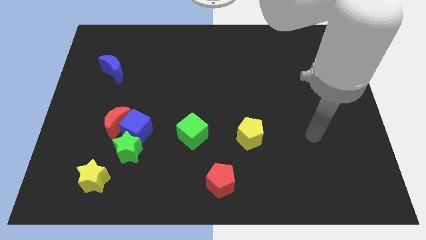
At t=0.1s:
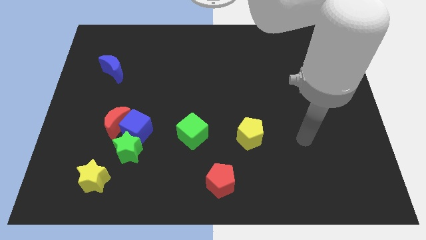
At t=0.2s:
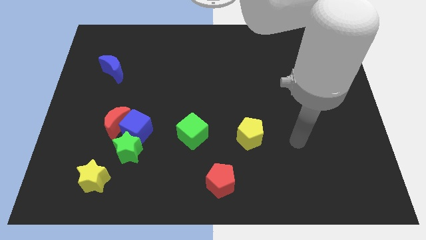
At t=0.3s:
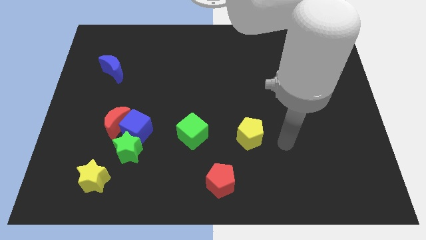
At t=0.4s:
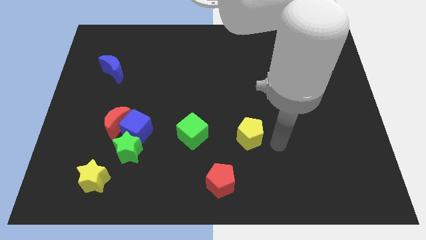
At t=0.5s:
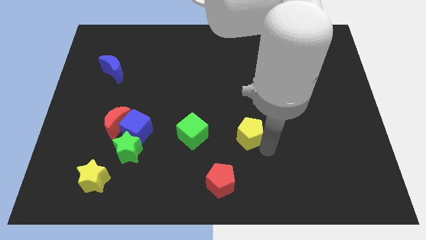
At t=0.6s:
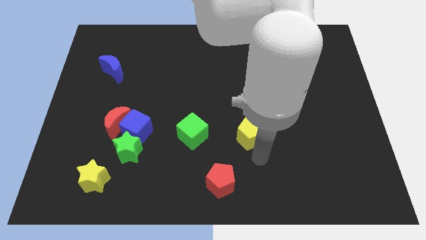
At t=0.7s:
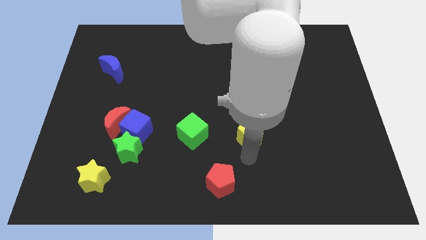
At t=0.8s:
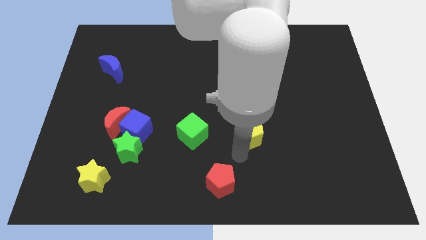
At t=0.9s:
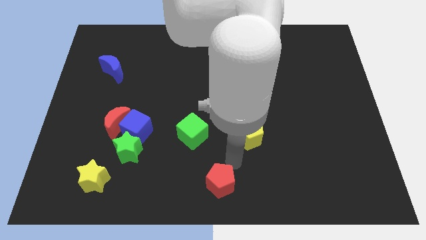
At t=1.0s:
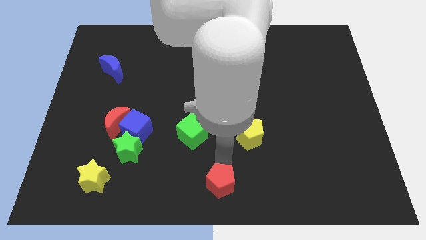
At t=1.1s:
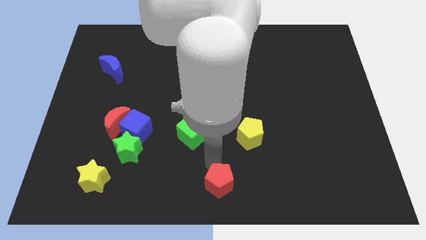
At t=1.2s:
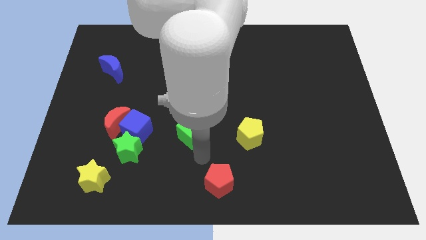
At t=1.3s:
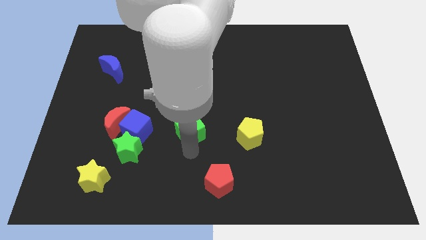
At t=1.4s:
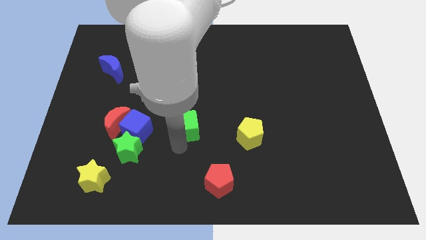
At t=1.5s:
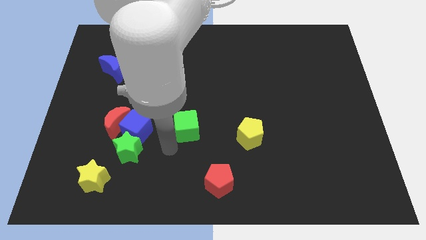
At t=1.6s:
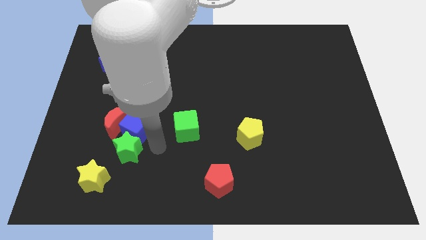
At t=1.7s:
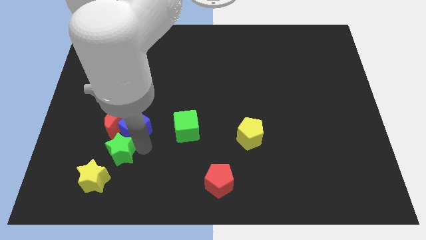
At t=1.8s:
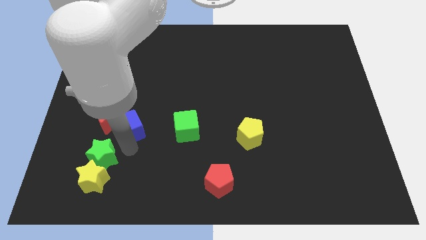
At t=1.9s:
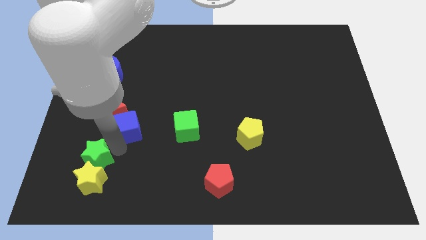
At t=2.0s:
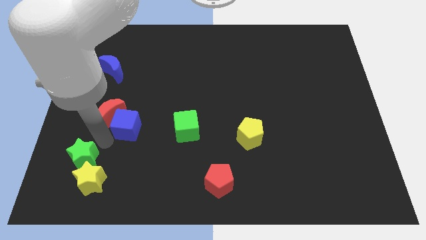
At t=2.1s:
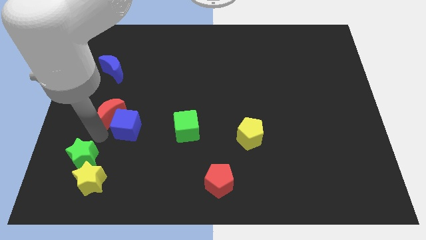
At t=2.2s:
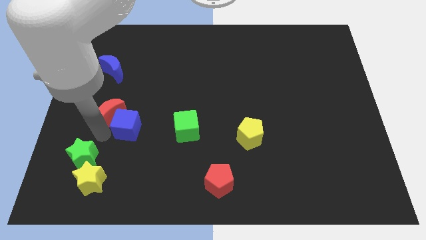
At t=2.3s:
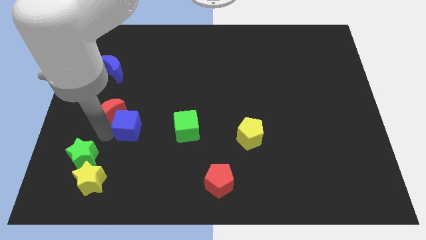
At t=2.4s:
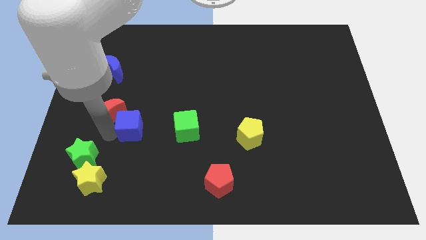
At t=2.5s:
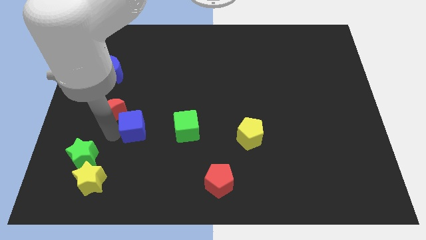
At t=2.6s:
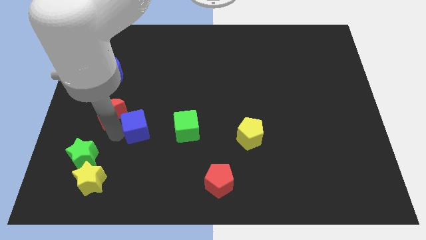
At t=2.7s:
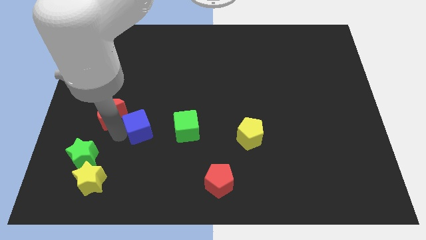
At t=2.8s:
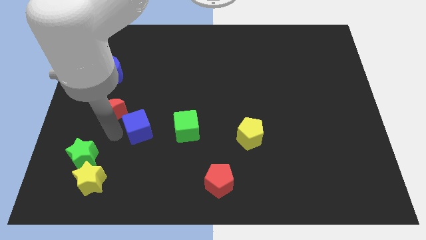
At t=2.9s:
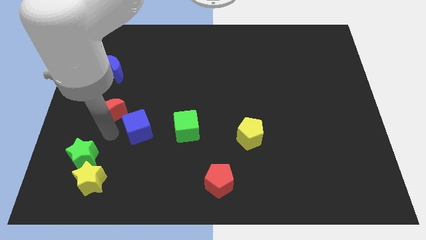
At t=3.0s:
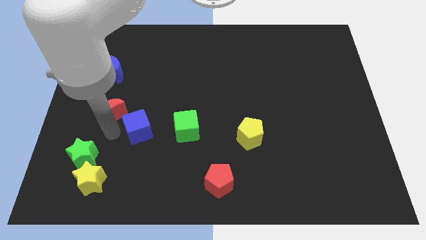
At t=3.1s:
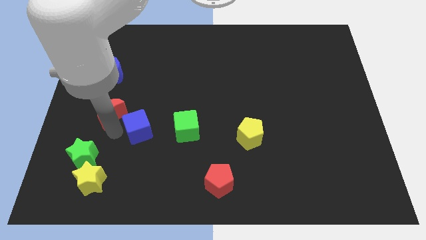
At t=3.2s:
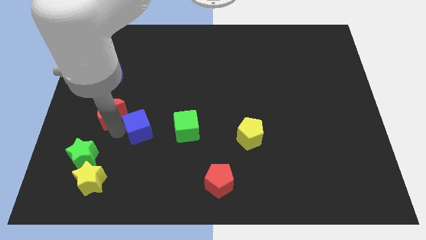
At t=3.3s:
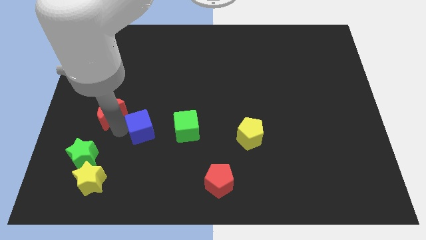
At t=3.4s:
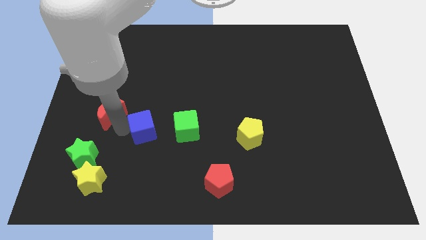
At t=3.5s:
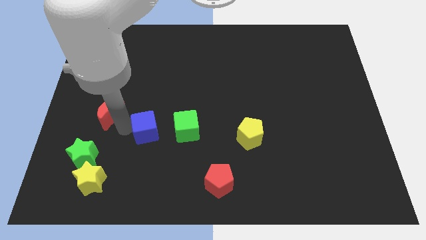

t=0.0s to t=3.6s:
separate the blue cube from the red moon and green star

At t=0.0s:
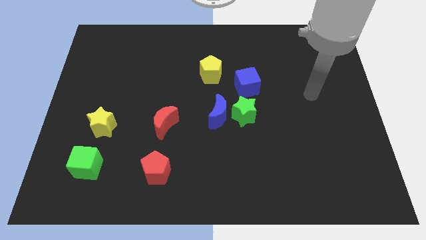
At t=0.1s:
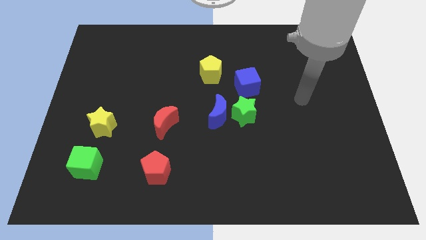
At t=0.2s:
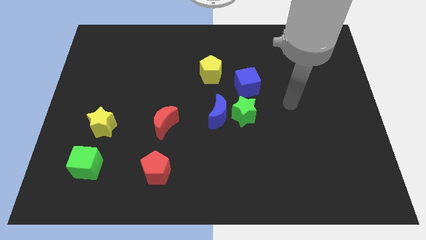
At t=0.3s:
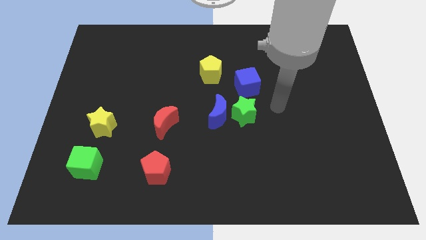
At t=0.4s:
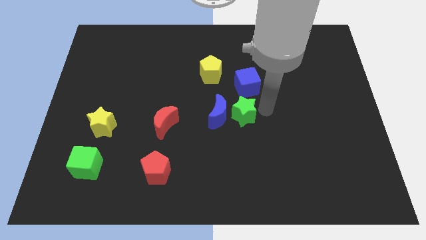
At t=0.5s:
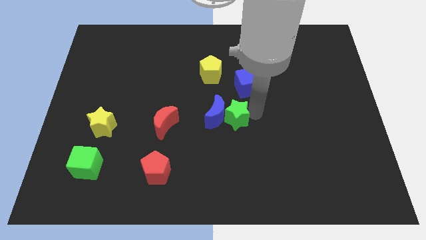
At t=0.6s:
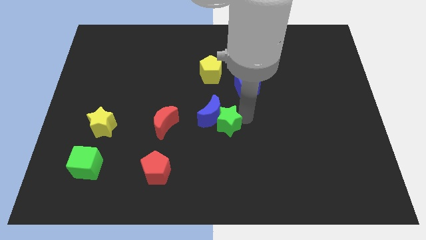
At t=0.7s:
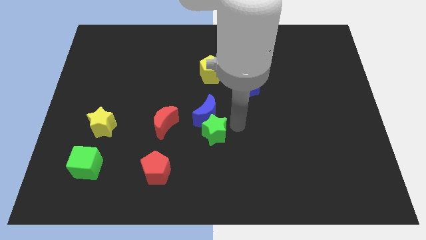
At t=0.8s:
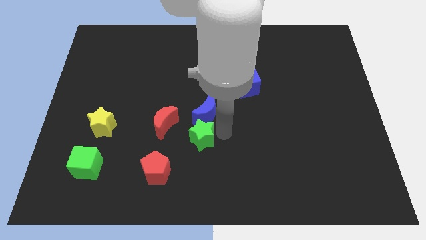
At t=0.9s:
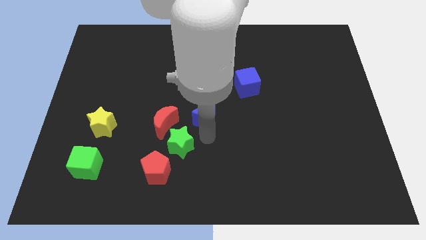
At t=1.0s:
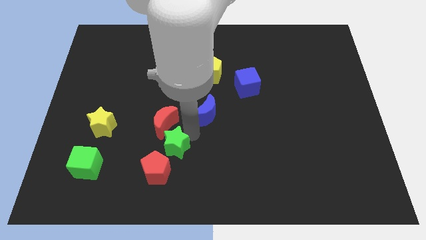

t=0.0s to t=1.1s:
move the blue moon away from the green star

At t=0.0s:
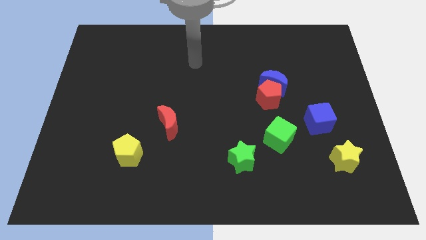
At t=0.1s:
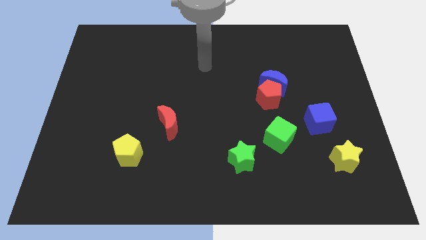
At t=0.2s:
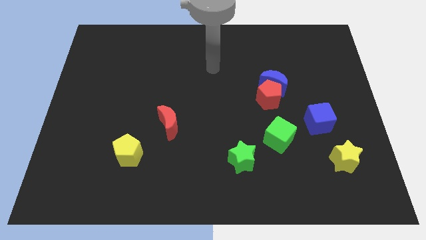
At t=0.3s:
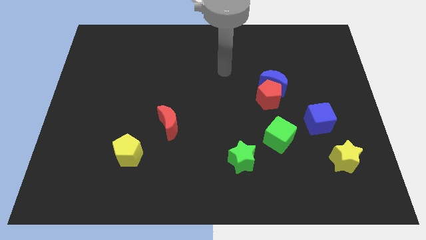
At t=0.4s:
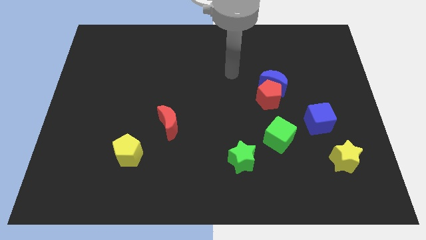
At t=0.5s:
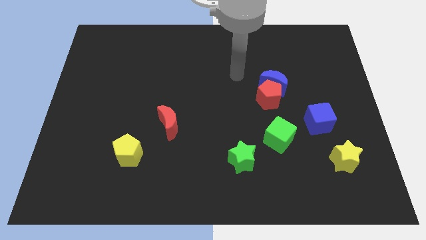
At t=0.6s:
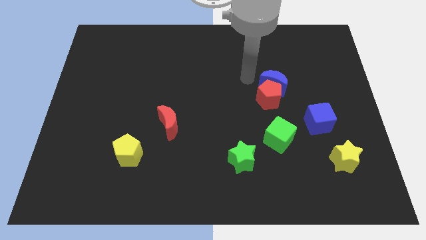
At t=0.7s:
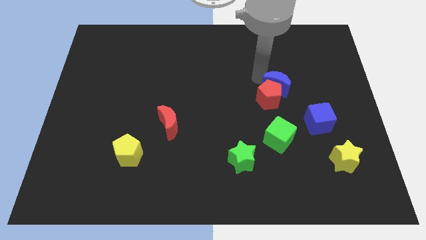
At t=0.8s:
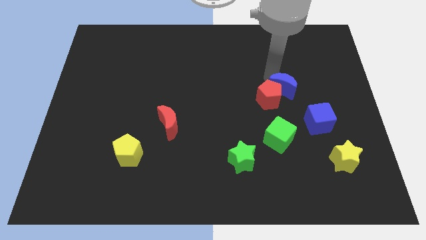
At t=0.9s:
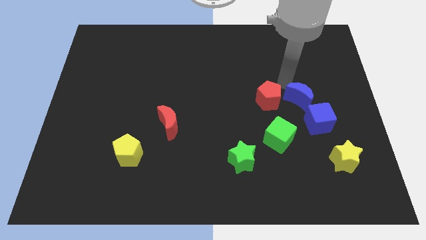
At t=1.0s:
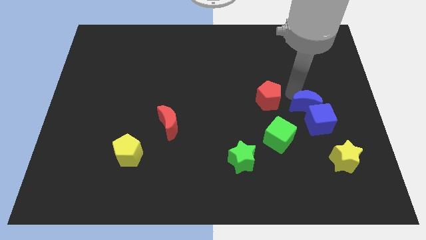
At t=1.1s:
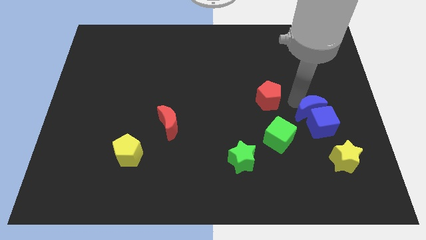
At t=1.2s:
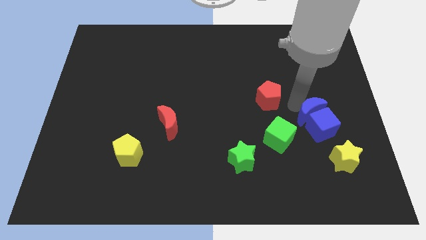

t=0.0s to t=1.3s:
pull the red pentagon apart from the blue moon

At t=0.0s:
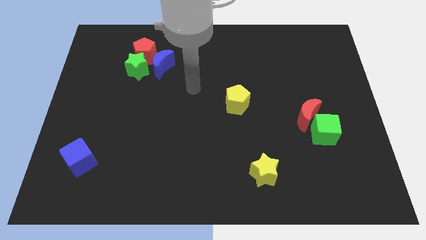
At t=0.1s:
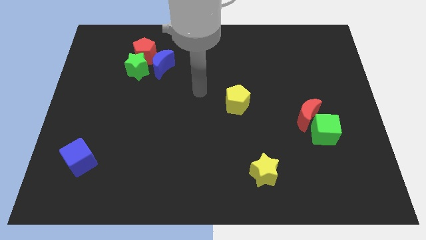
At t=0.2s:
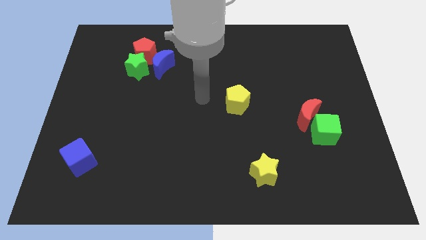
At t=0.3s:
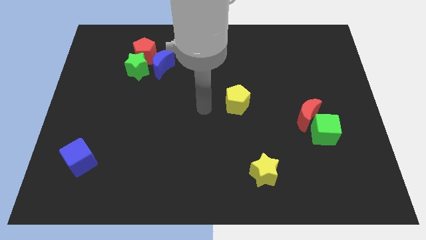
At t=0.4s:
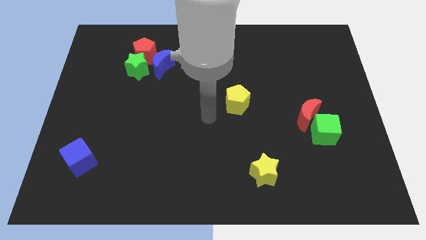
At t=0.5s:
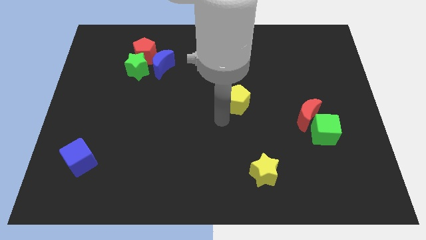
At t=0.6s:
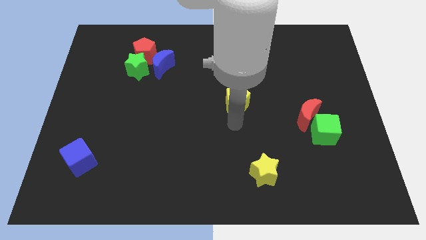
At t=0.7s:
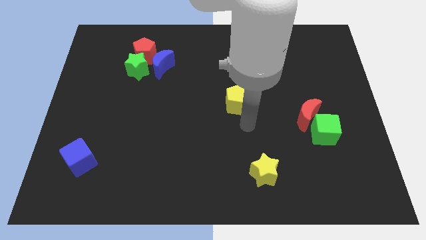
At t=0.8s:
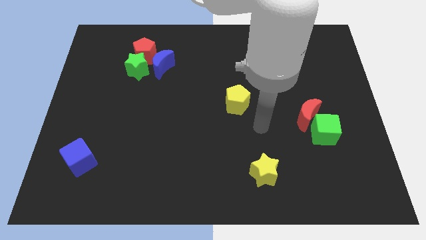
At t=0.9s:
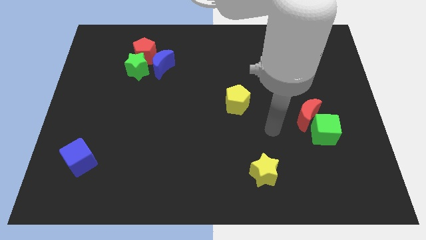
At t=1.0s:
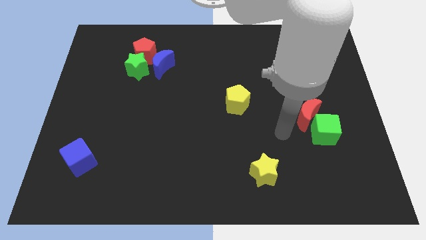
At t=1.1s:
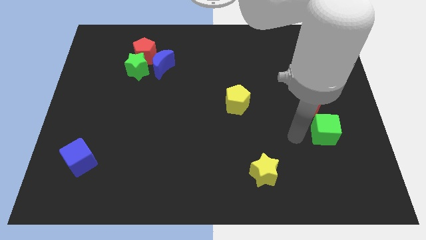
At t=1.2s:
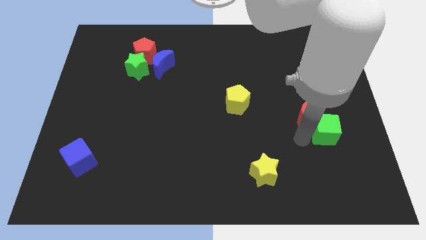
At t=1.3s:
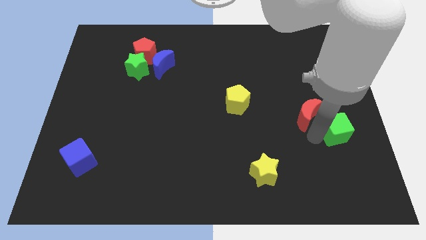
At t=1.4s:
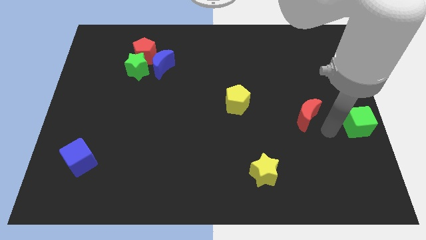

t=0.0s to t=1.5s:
separate the red moon from the green cube

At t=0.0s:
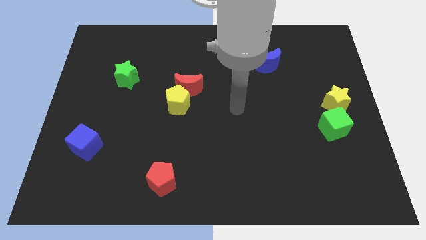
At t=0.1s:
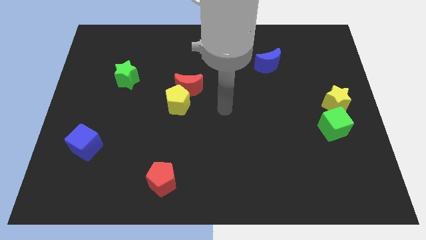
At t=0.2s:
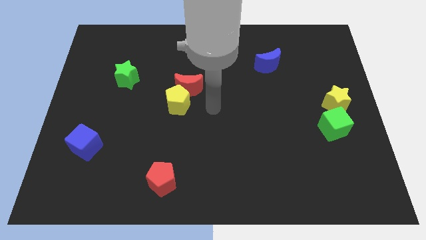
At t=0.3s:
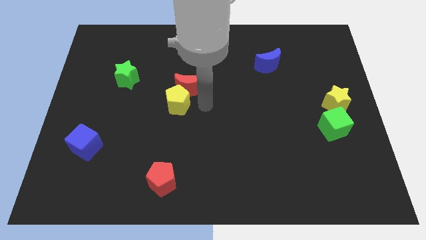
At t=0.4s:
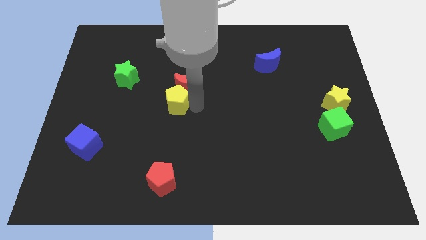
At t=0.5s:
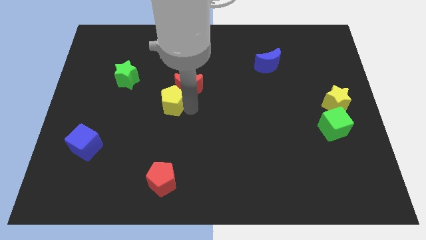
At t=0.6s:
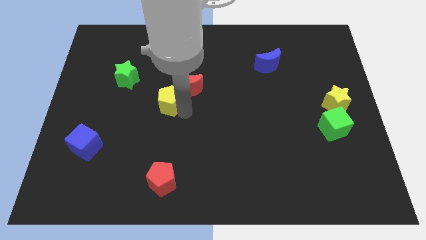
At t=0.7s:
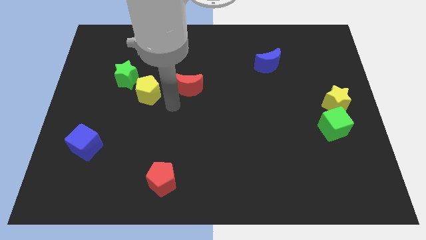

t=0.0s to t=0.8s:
move the red moon away from the yellow pentagon

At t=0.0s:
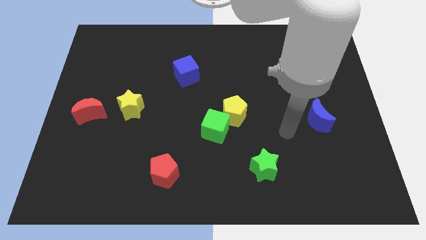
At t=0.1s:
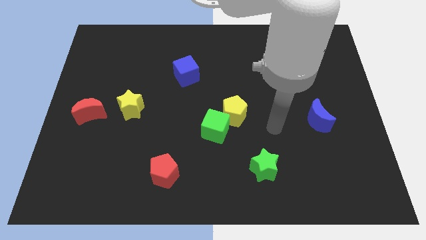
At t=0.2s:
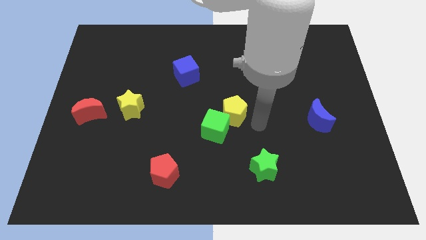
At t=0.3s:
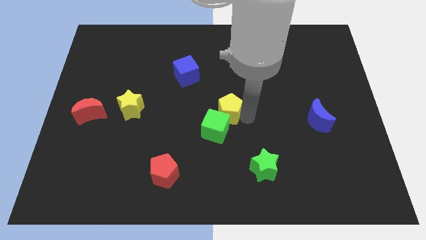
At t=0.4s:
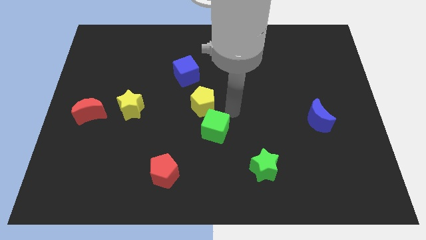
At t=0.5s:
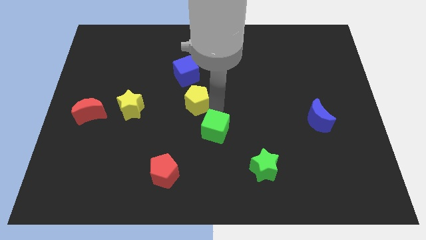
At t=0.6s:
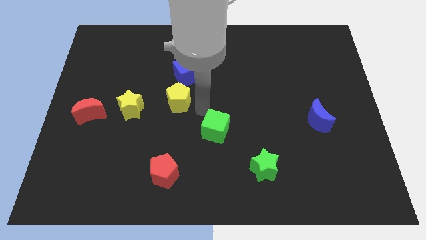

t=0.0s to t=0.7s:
separate the green cube from the yellow pentagon

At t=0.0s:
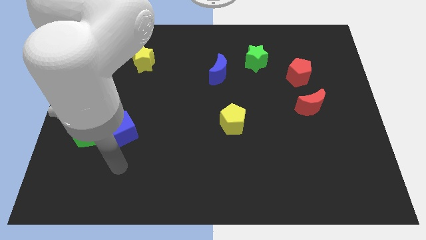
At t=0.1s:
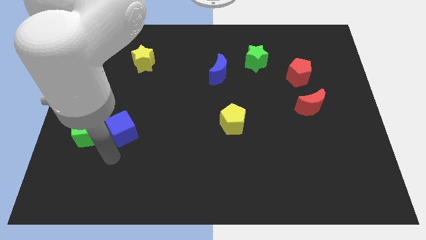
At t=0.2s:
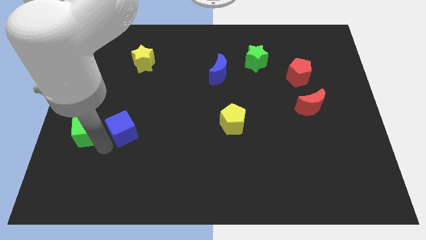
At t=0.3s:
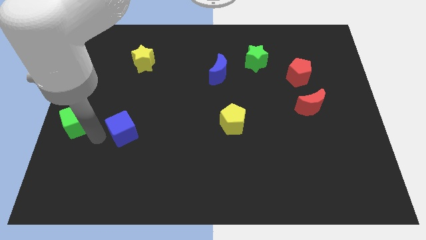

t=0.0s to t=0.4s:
move the blue cube away from the green cube
